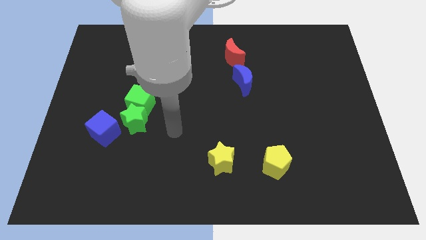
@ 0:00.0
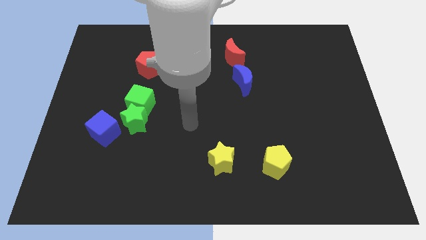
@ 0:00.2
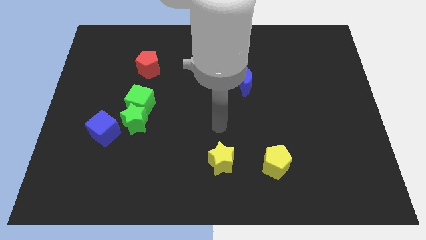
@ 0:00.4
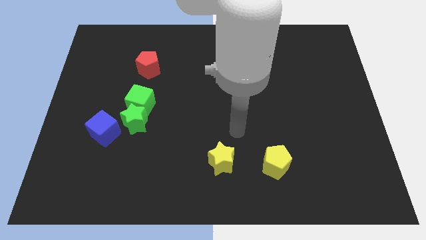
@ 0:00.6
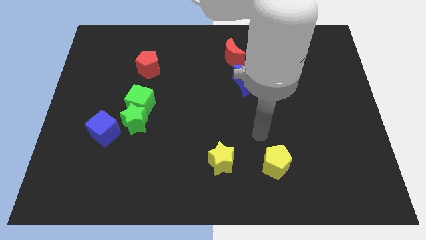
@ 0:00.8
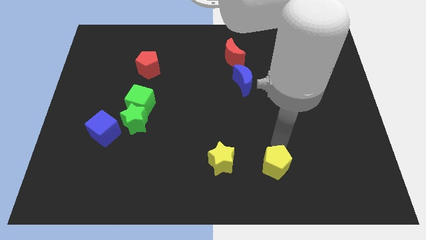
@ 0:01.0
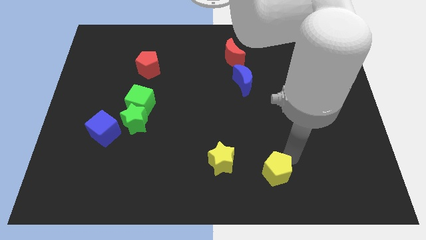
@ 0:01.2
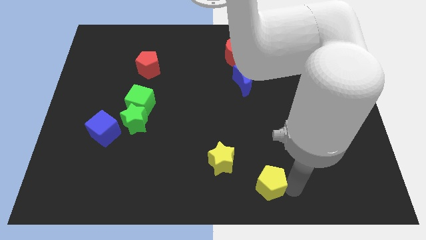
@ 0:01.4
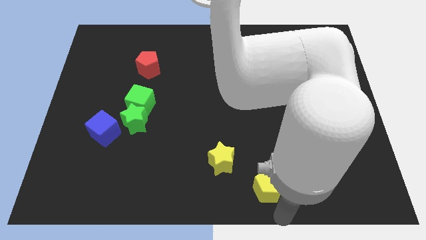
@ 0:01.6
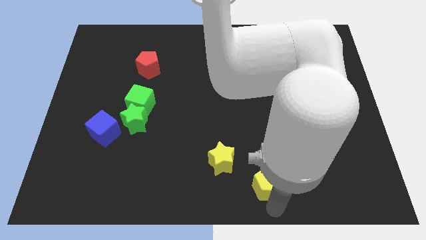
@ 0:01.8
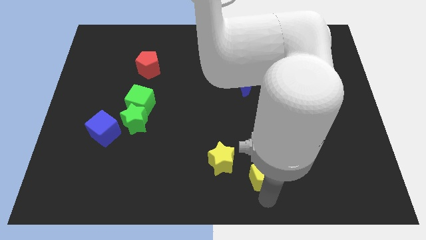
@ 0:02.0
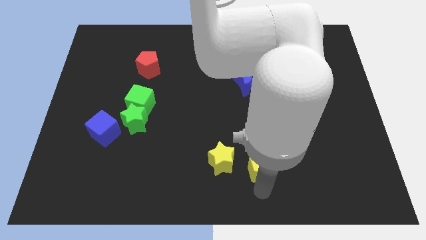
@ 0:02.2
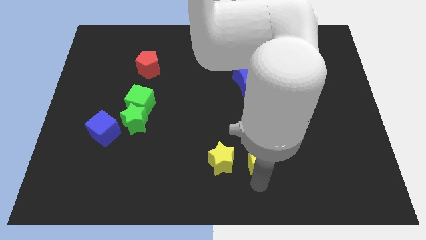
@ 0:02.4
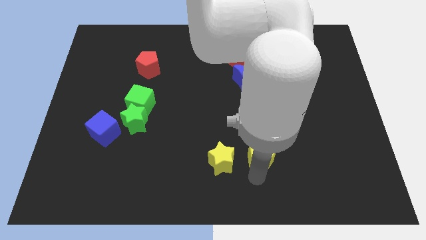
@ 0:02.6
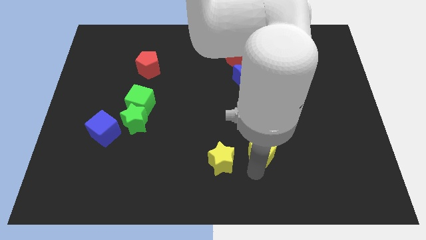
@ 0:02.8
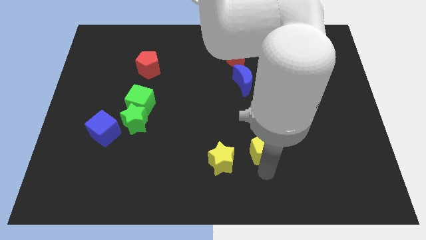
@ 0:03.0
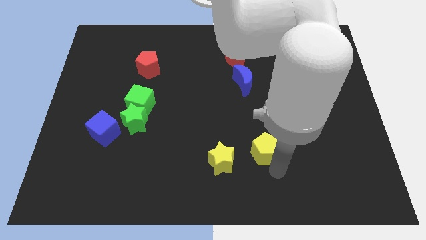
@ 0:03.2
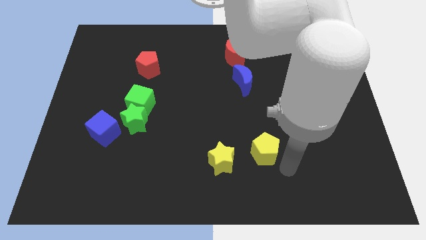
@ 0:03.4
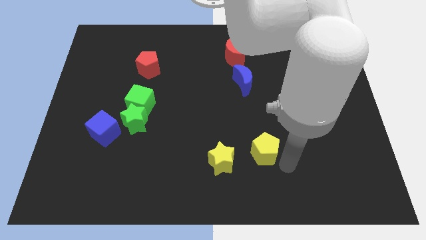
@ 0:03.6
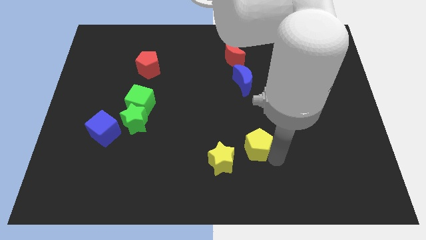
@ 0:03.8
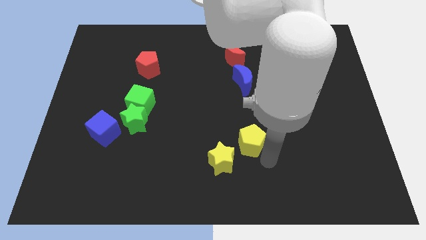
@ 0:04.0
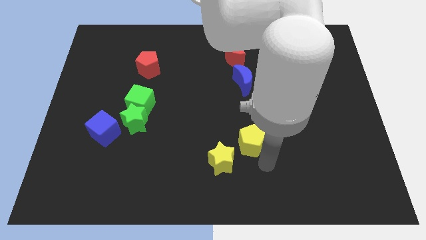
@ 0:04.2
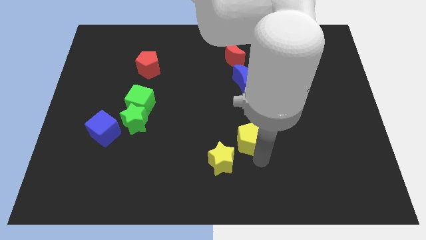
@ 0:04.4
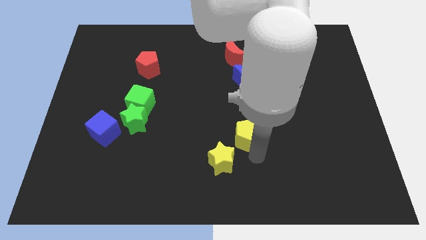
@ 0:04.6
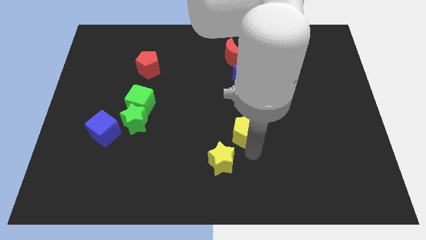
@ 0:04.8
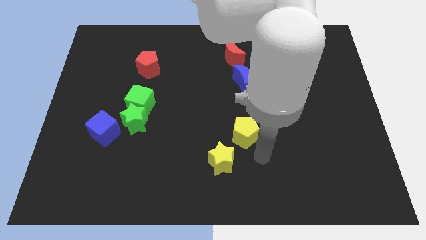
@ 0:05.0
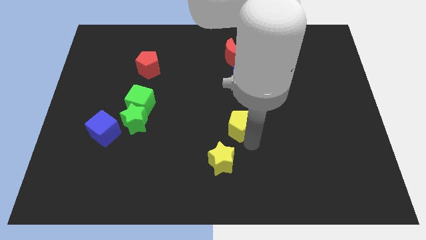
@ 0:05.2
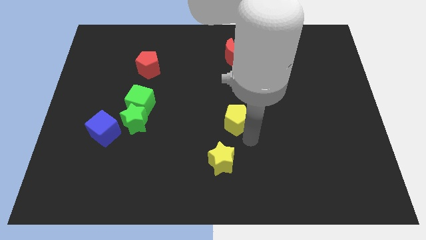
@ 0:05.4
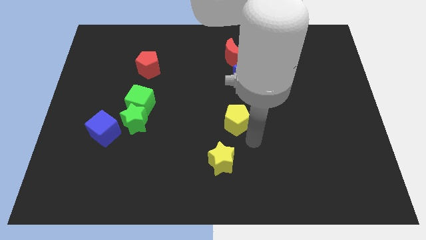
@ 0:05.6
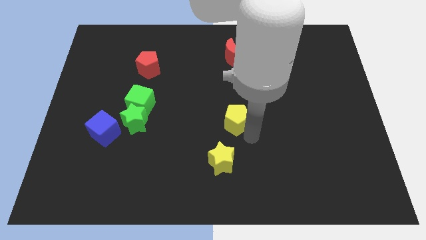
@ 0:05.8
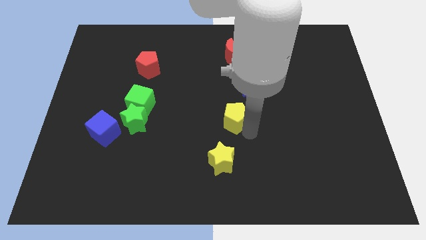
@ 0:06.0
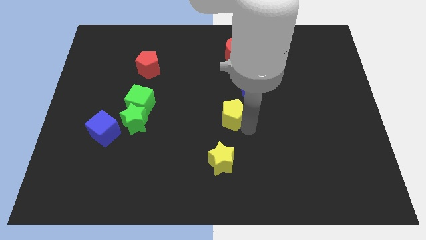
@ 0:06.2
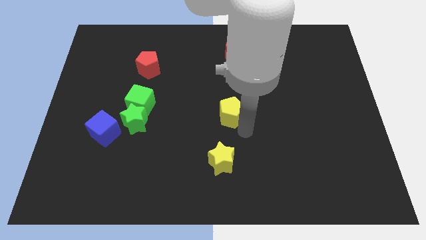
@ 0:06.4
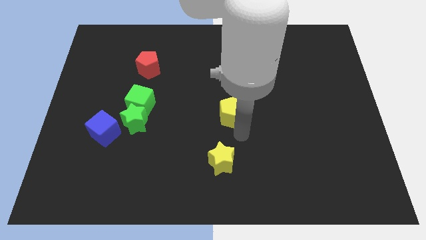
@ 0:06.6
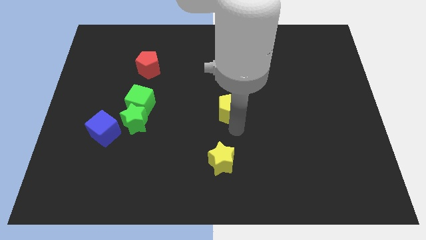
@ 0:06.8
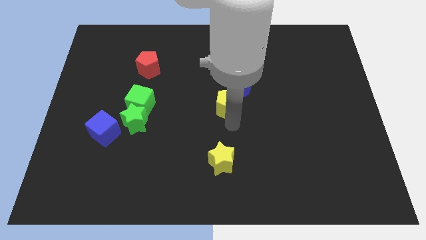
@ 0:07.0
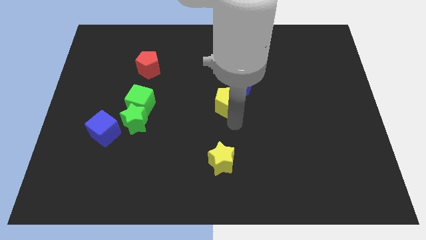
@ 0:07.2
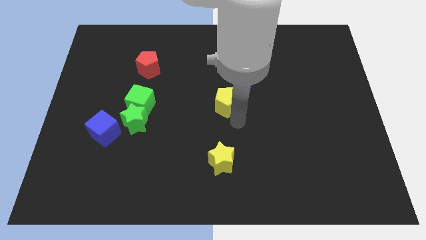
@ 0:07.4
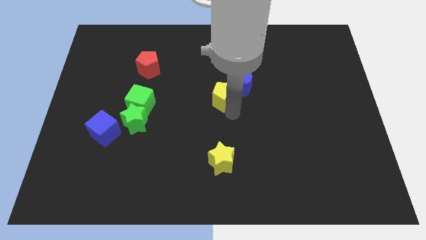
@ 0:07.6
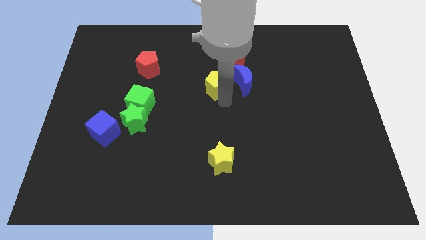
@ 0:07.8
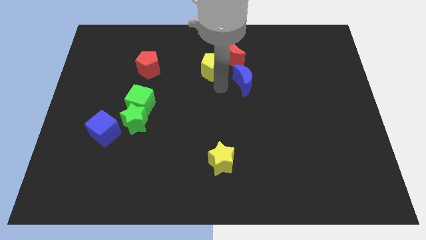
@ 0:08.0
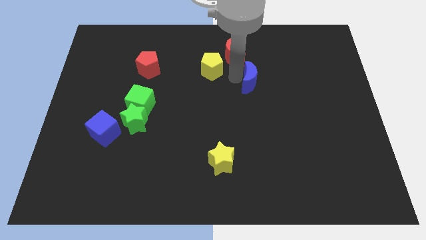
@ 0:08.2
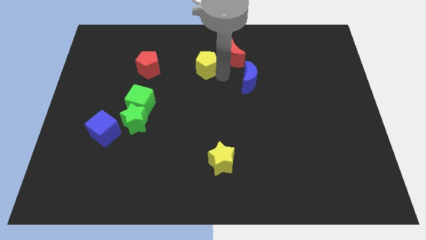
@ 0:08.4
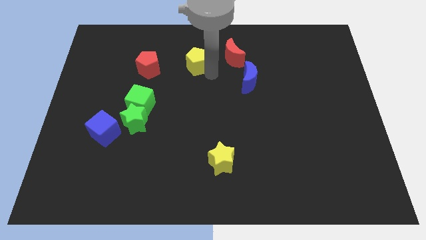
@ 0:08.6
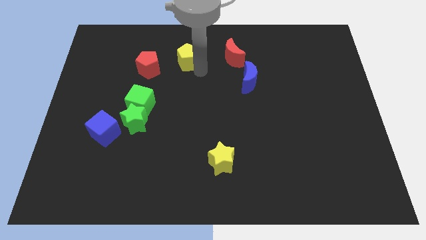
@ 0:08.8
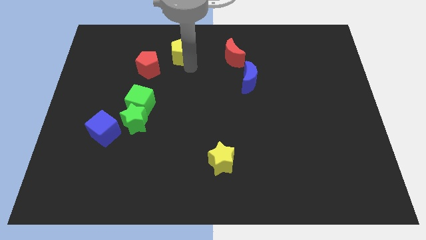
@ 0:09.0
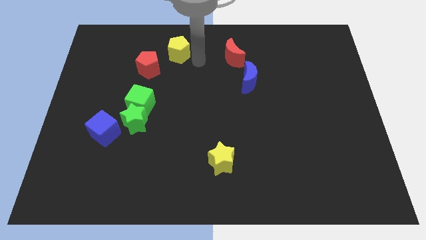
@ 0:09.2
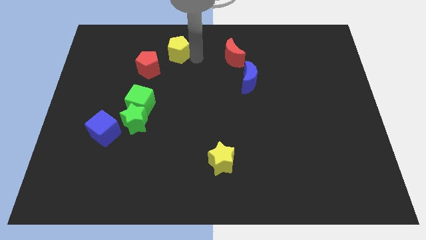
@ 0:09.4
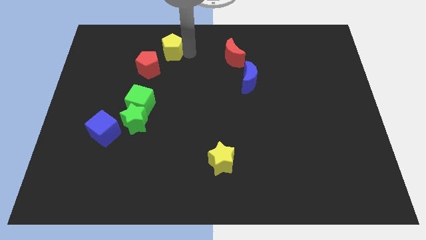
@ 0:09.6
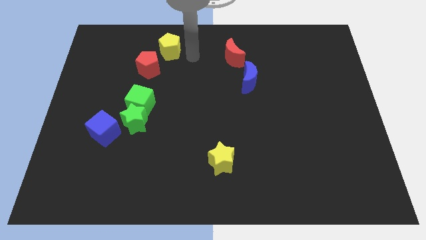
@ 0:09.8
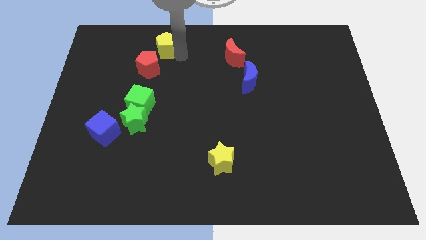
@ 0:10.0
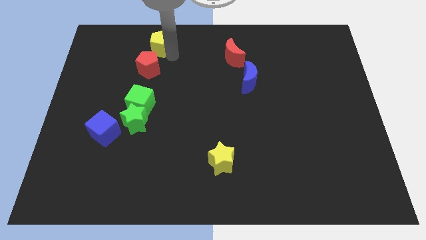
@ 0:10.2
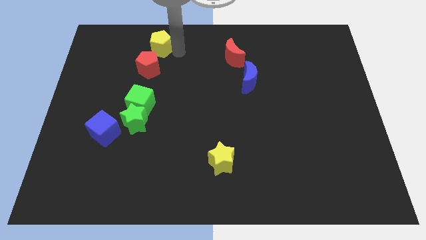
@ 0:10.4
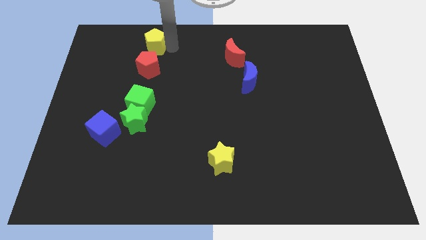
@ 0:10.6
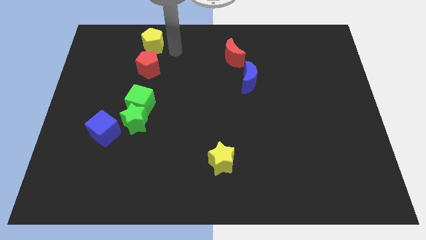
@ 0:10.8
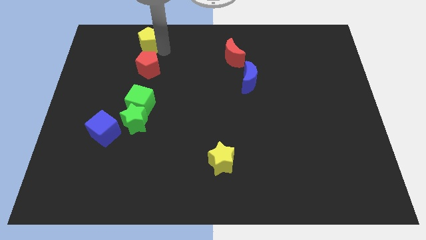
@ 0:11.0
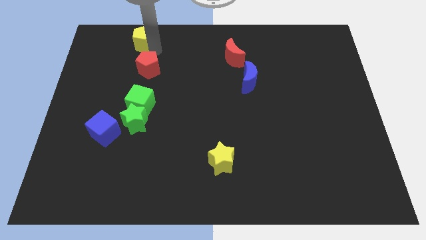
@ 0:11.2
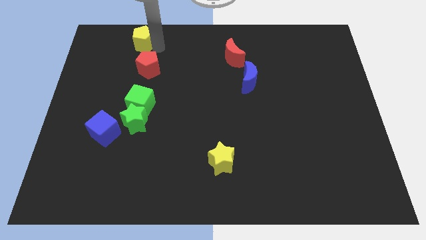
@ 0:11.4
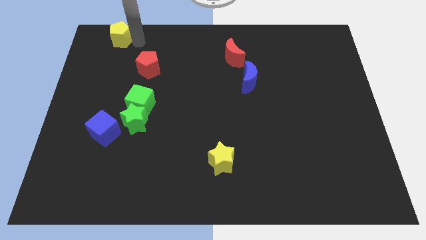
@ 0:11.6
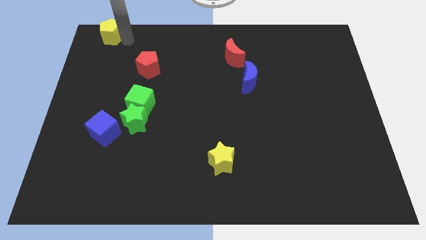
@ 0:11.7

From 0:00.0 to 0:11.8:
put the yellow pentagon to the top left corner
